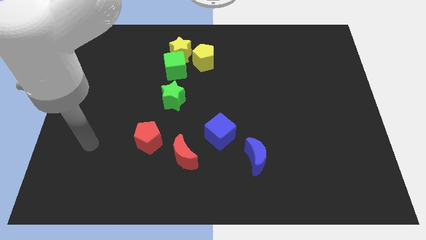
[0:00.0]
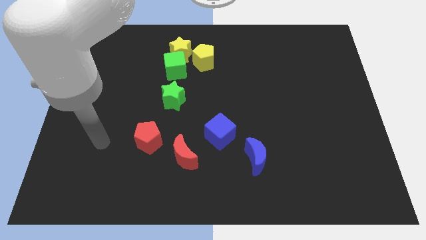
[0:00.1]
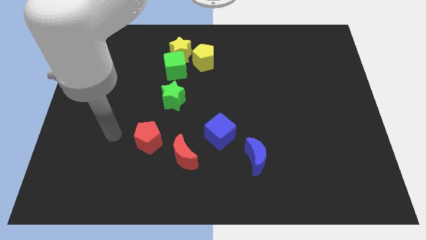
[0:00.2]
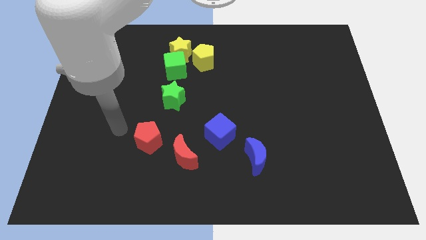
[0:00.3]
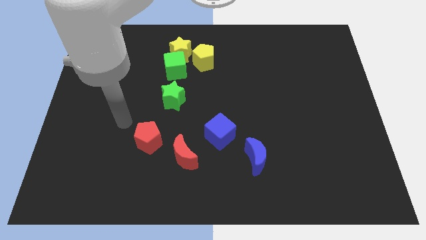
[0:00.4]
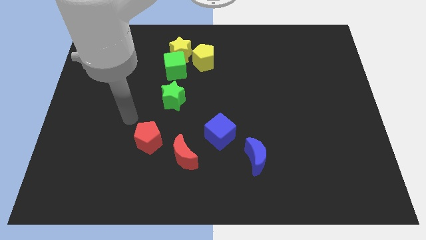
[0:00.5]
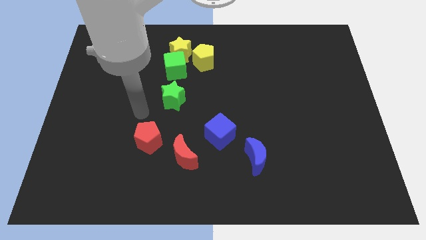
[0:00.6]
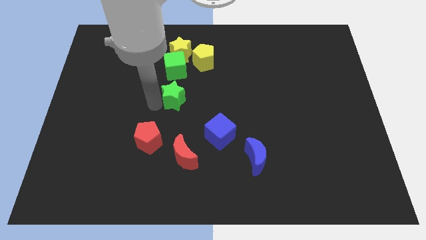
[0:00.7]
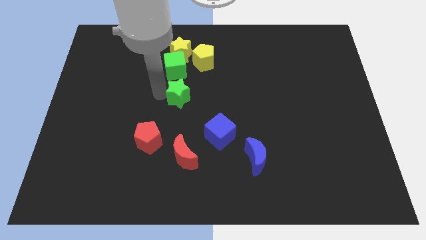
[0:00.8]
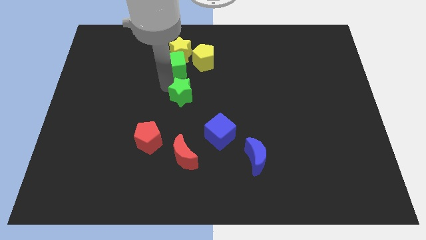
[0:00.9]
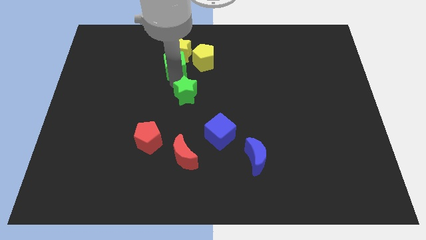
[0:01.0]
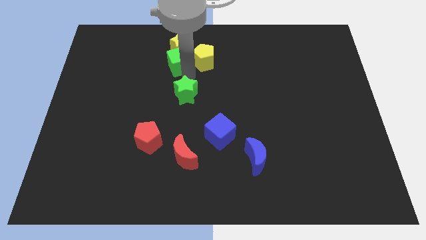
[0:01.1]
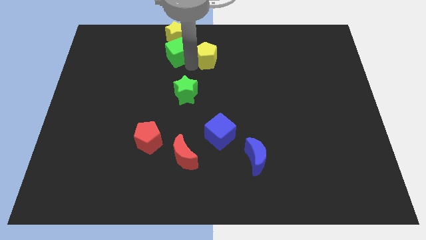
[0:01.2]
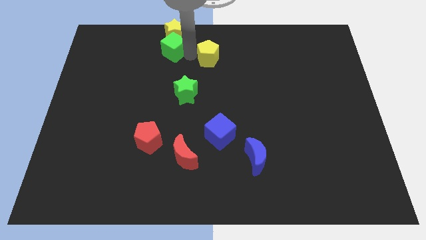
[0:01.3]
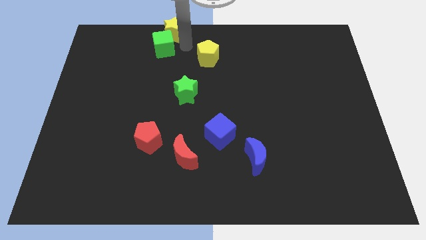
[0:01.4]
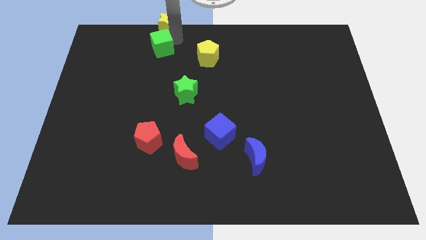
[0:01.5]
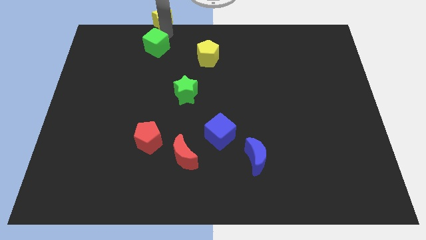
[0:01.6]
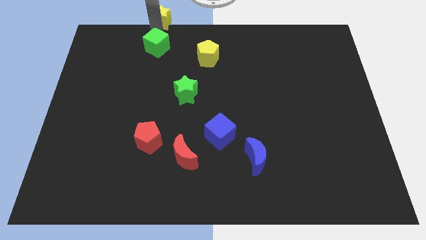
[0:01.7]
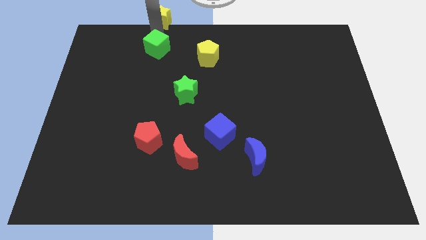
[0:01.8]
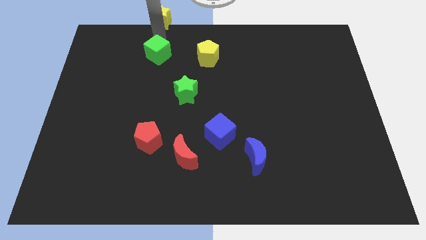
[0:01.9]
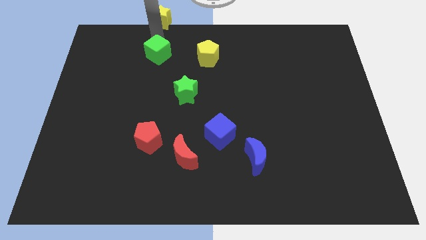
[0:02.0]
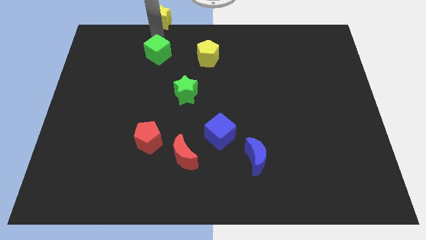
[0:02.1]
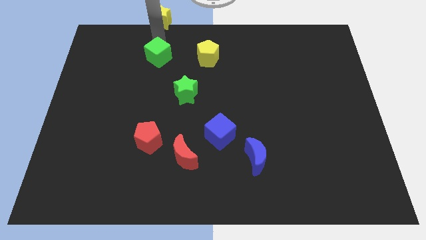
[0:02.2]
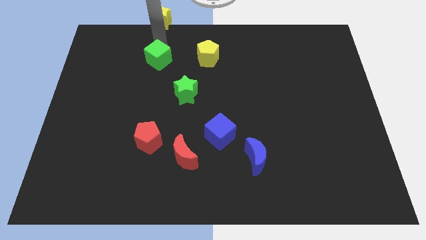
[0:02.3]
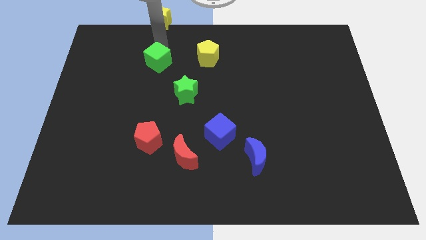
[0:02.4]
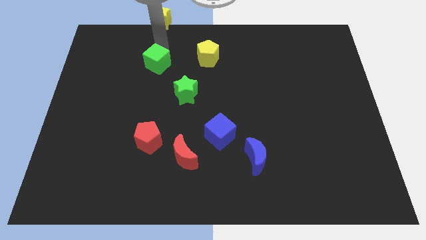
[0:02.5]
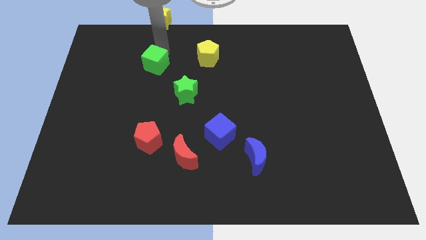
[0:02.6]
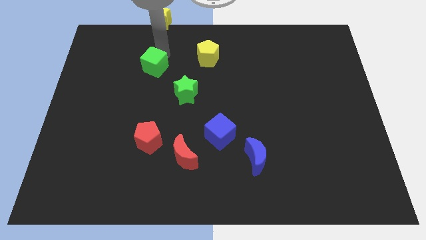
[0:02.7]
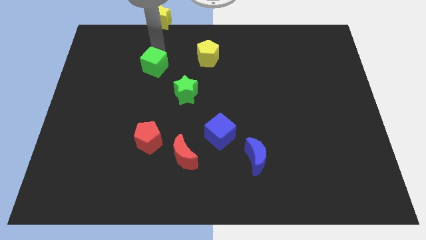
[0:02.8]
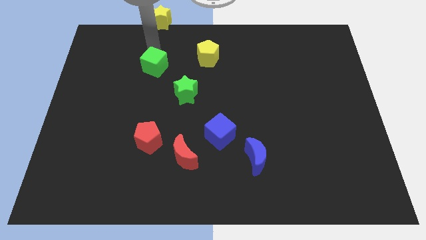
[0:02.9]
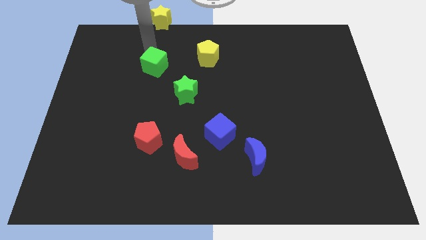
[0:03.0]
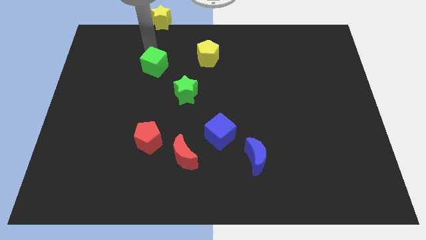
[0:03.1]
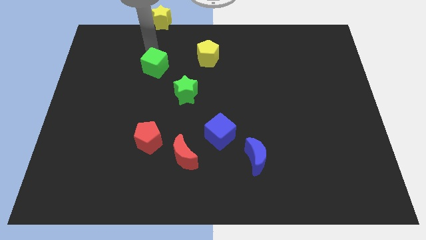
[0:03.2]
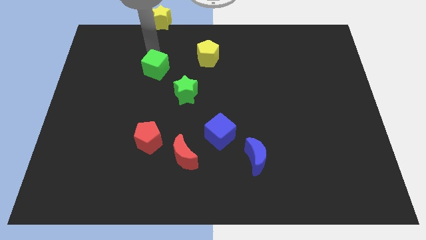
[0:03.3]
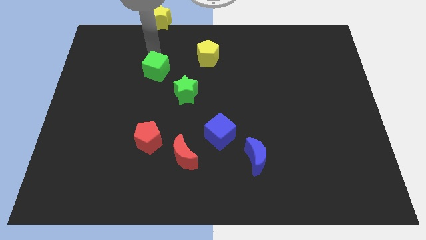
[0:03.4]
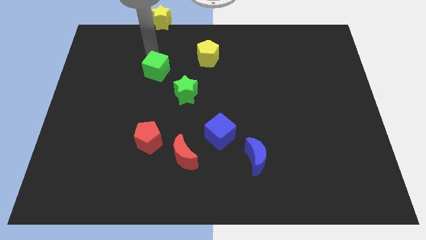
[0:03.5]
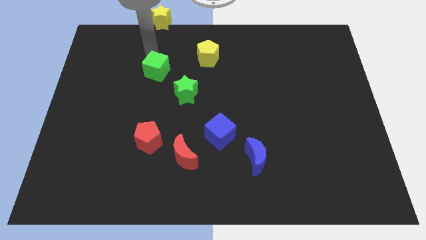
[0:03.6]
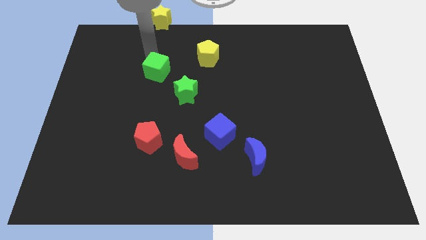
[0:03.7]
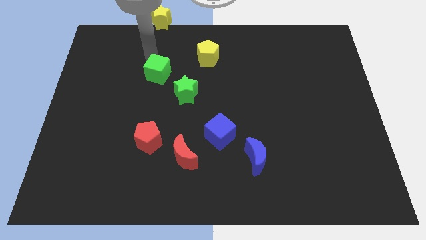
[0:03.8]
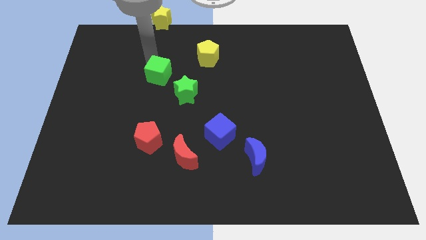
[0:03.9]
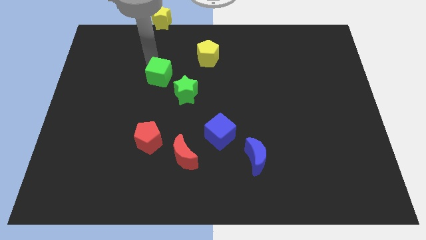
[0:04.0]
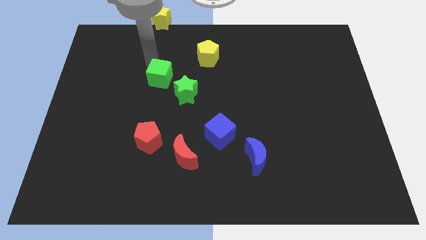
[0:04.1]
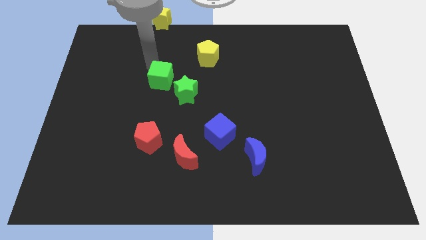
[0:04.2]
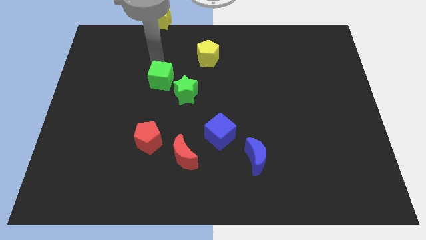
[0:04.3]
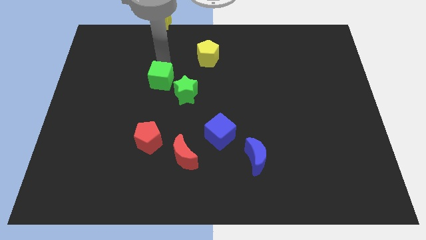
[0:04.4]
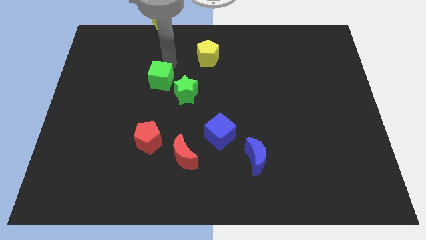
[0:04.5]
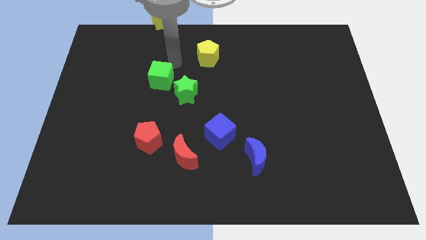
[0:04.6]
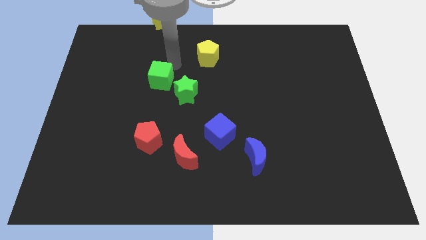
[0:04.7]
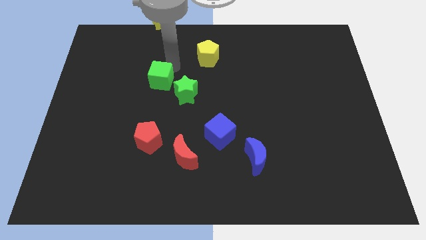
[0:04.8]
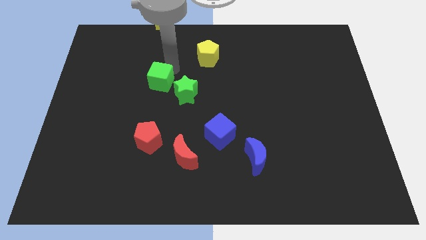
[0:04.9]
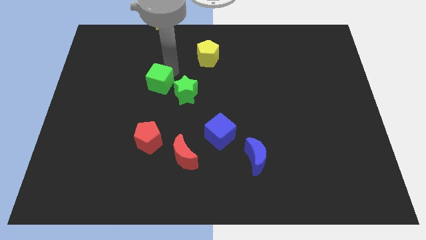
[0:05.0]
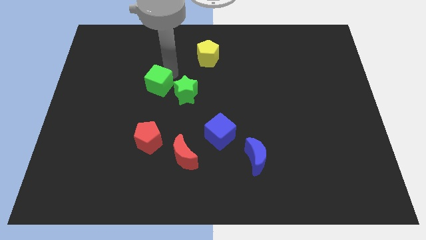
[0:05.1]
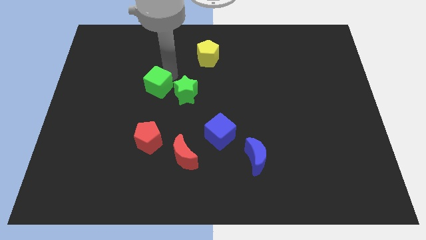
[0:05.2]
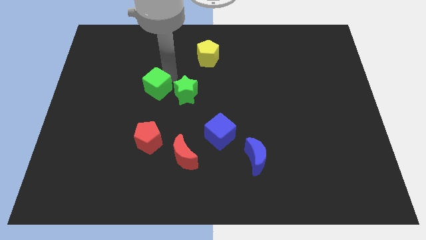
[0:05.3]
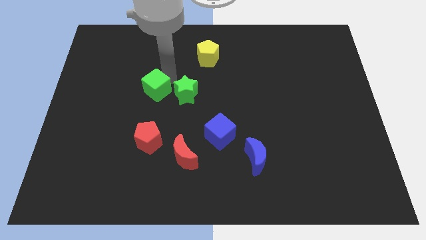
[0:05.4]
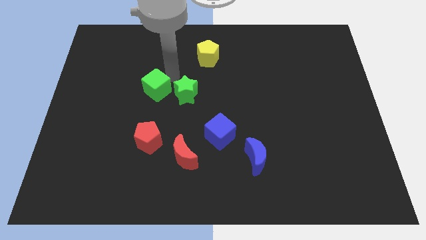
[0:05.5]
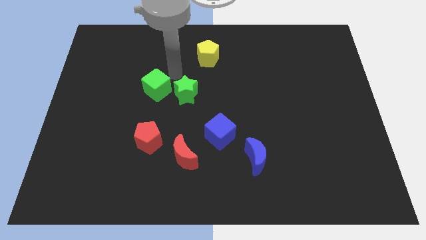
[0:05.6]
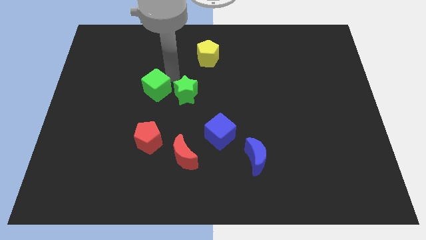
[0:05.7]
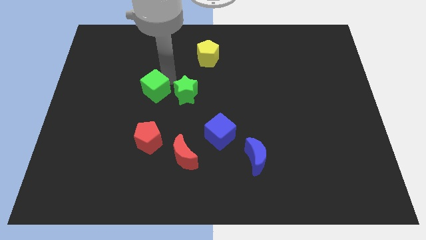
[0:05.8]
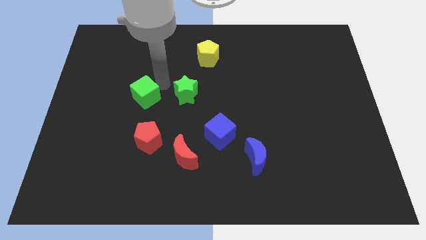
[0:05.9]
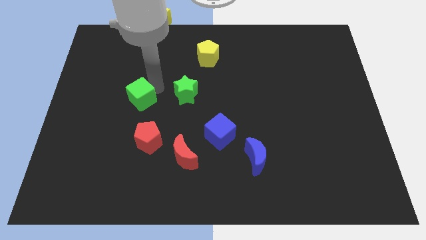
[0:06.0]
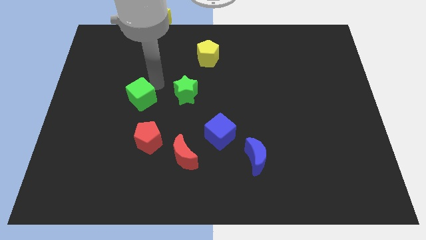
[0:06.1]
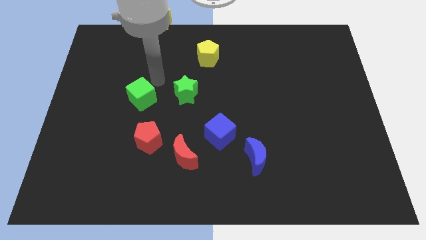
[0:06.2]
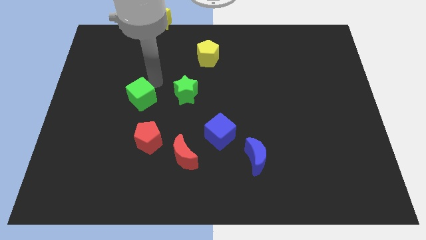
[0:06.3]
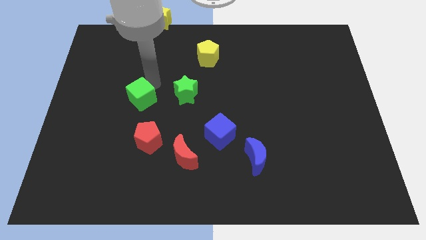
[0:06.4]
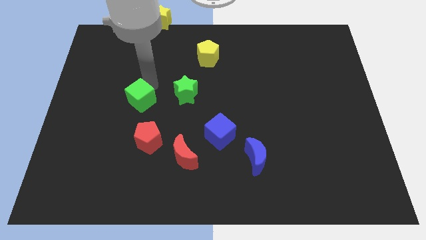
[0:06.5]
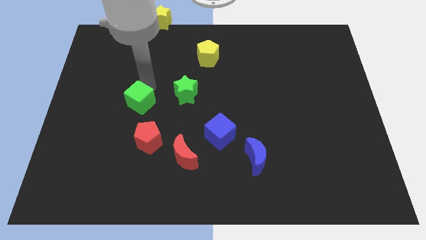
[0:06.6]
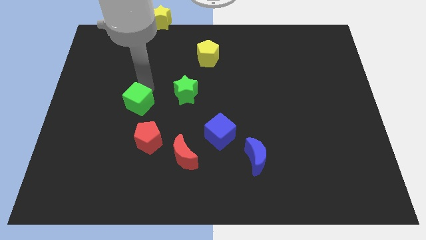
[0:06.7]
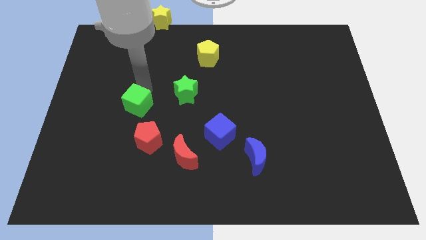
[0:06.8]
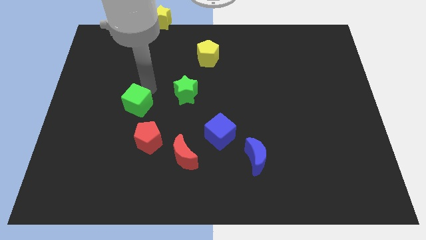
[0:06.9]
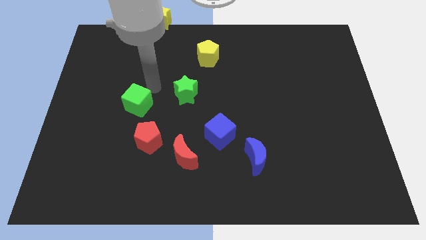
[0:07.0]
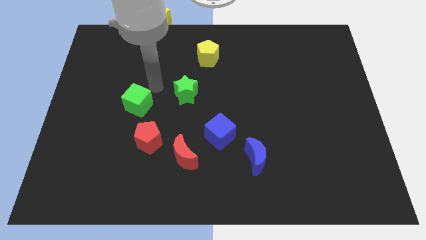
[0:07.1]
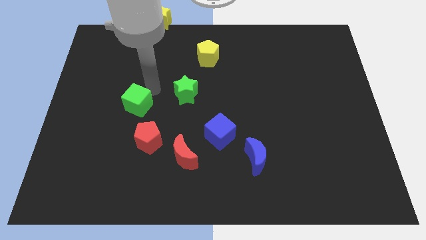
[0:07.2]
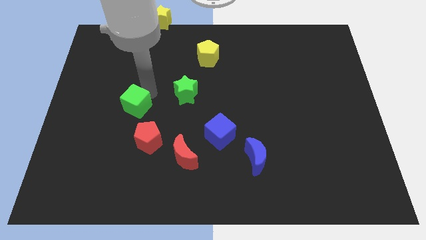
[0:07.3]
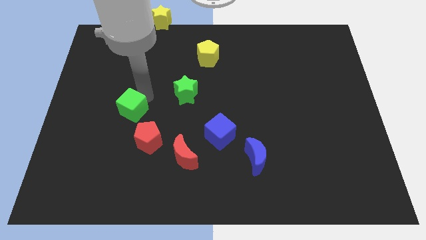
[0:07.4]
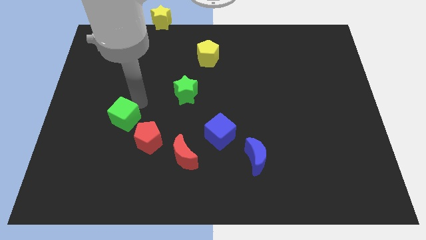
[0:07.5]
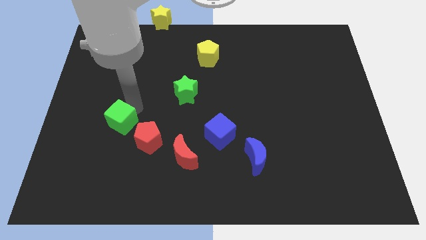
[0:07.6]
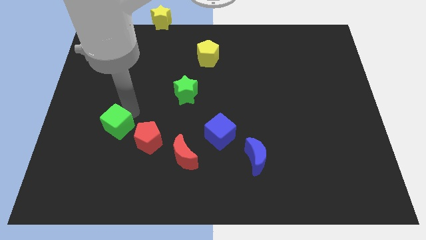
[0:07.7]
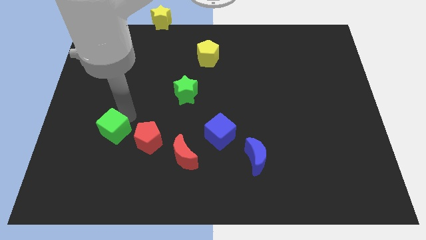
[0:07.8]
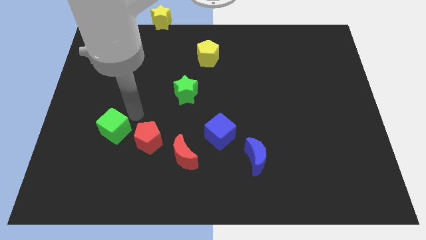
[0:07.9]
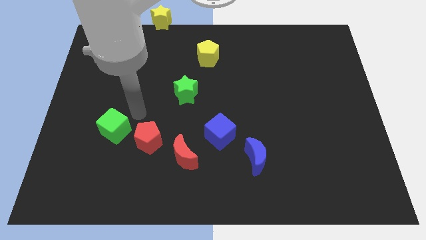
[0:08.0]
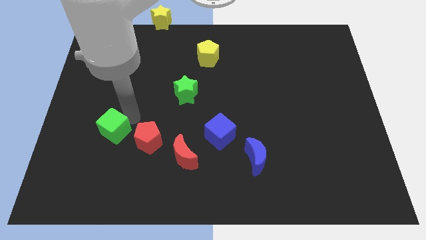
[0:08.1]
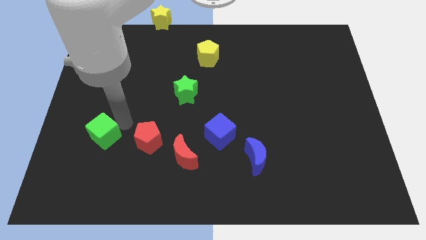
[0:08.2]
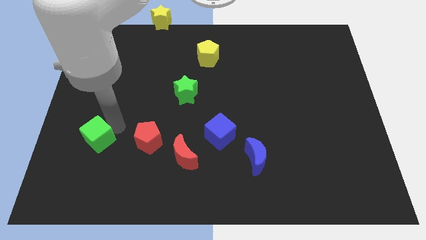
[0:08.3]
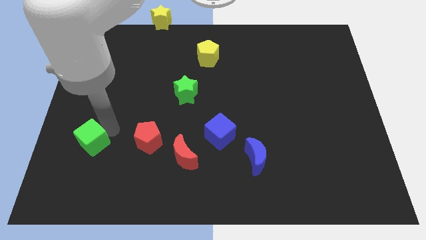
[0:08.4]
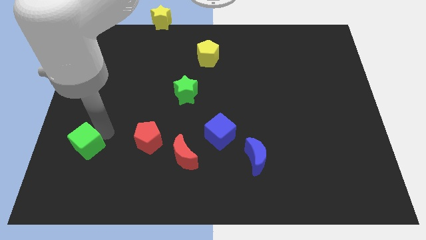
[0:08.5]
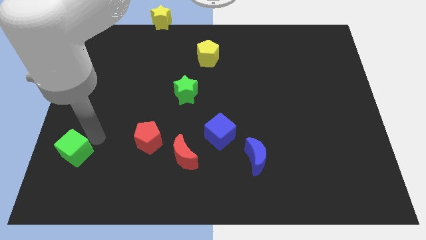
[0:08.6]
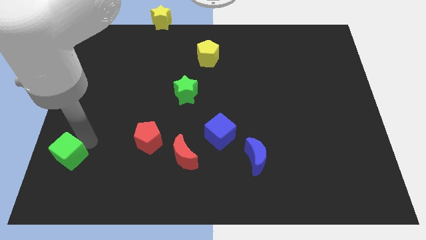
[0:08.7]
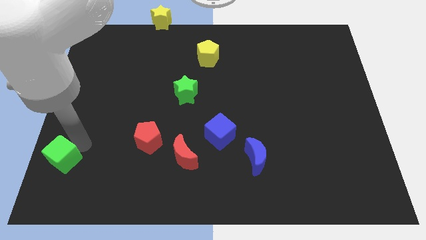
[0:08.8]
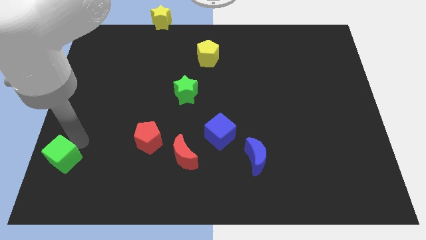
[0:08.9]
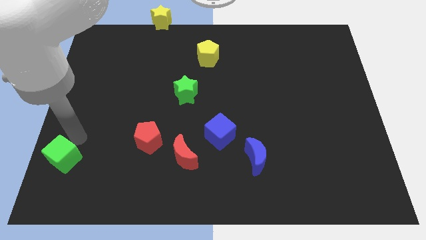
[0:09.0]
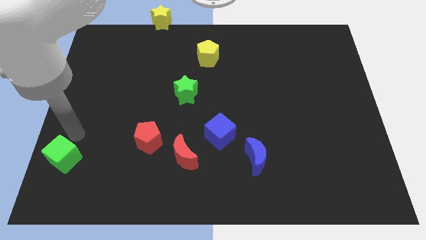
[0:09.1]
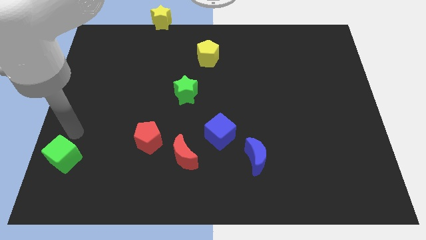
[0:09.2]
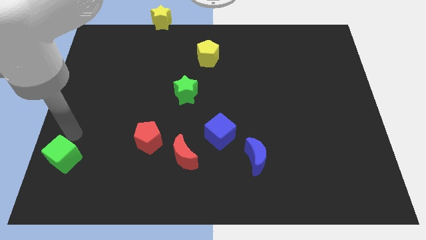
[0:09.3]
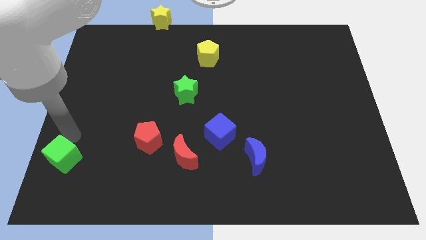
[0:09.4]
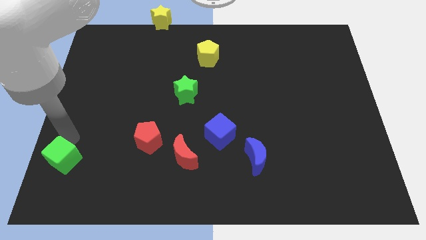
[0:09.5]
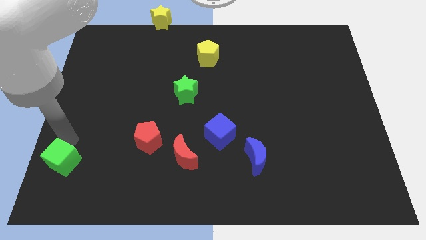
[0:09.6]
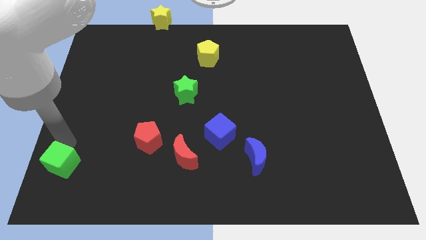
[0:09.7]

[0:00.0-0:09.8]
push the green cube to the lower left corner
